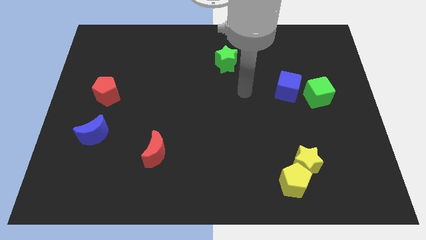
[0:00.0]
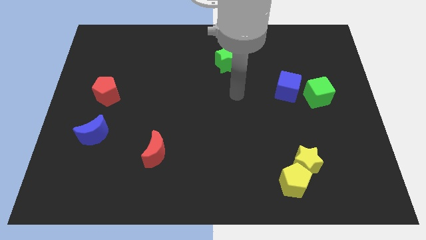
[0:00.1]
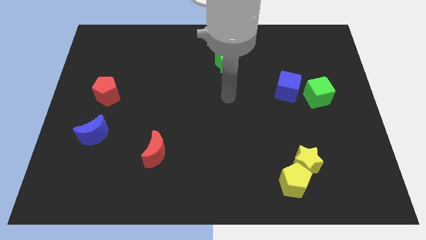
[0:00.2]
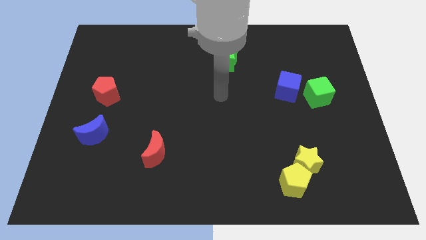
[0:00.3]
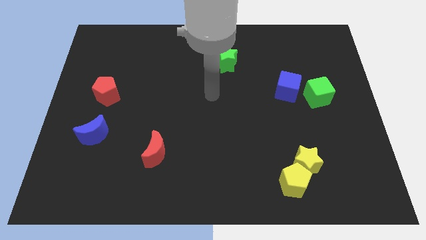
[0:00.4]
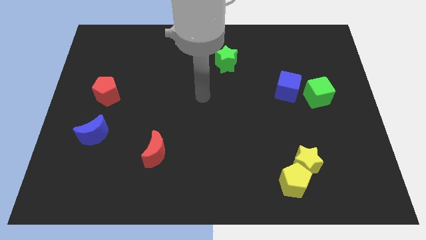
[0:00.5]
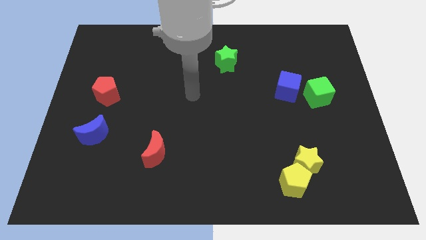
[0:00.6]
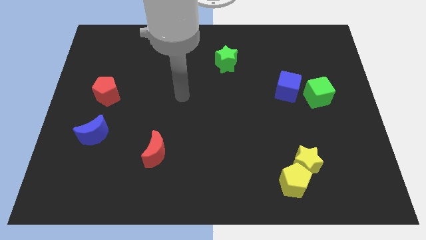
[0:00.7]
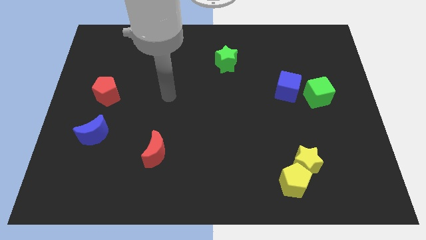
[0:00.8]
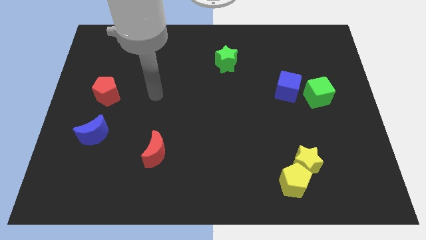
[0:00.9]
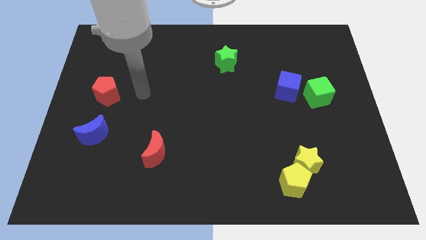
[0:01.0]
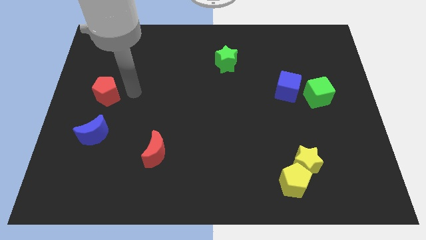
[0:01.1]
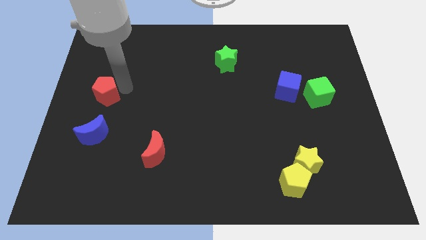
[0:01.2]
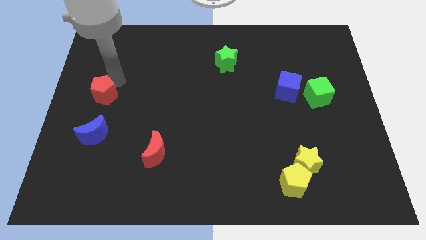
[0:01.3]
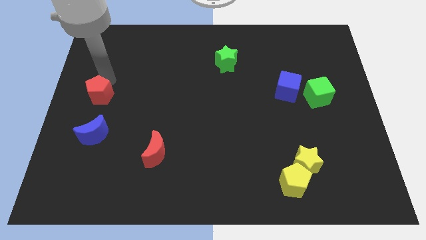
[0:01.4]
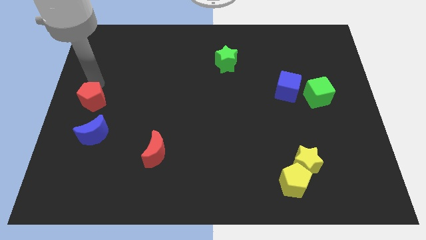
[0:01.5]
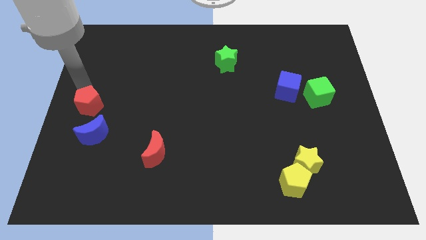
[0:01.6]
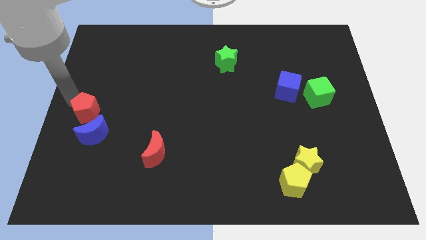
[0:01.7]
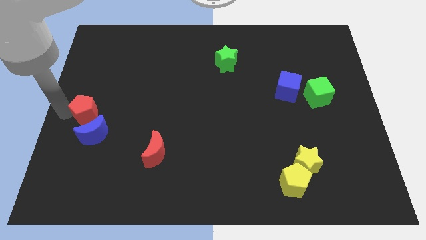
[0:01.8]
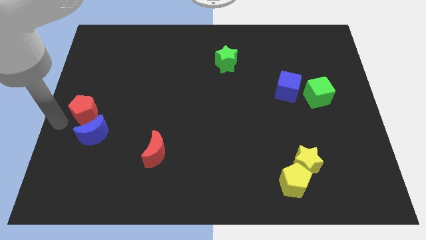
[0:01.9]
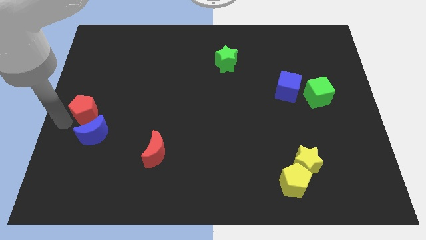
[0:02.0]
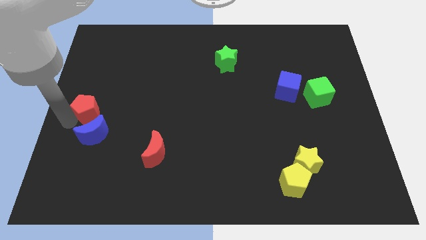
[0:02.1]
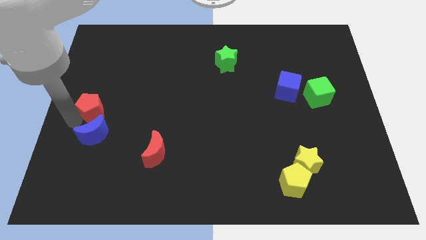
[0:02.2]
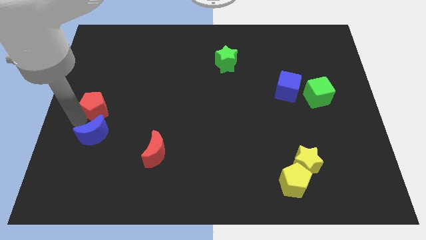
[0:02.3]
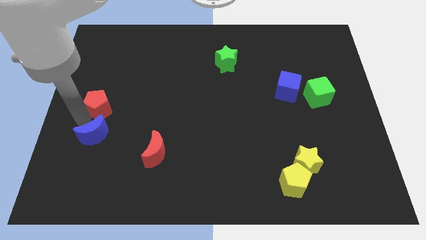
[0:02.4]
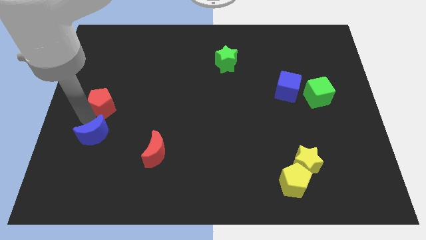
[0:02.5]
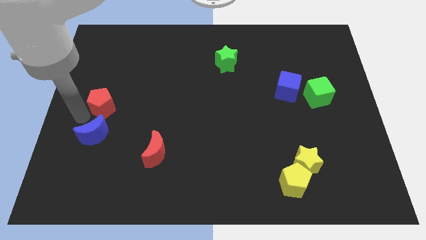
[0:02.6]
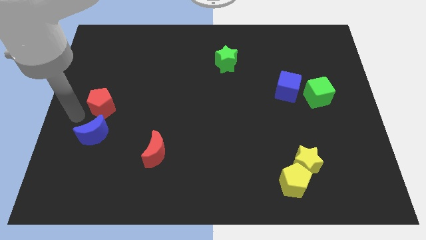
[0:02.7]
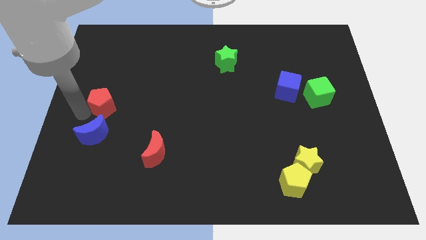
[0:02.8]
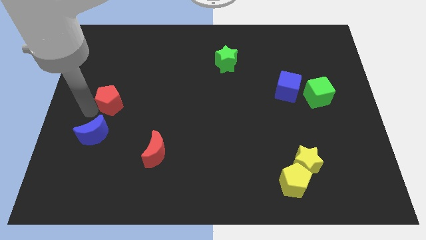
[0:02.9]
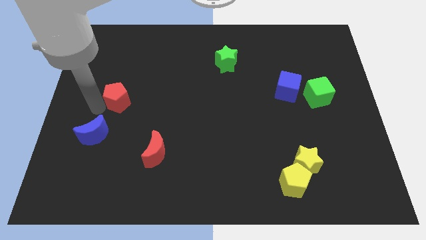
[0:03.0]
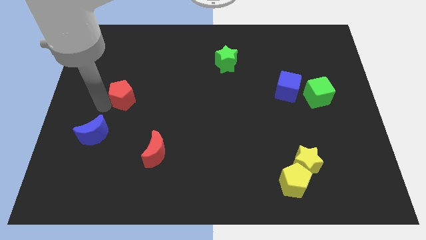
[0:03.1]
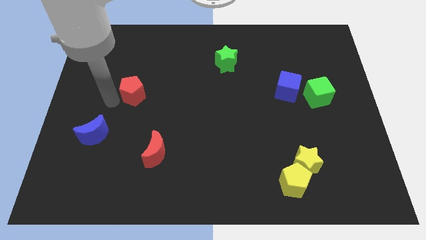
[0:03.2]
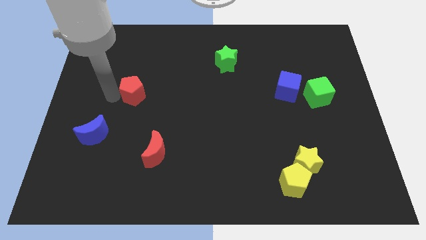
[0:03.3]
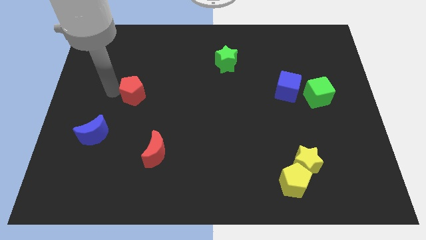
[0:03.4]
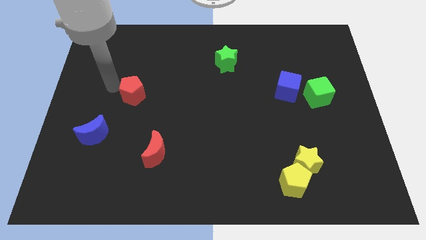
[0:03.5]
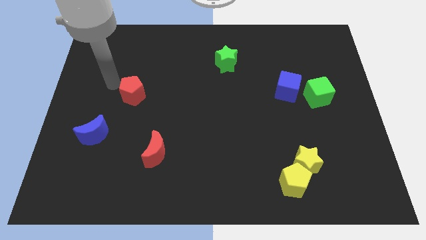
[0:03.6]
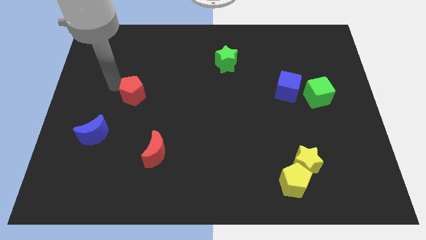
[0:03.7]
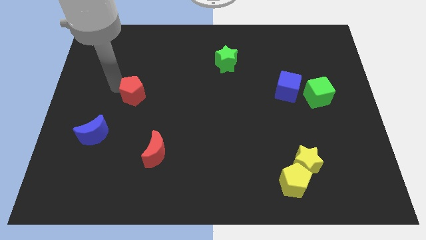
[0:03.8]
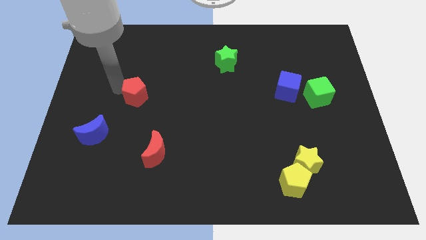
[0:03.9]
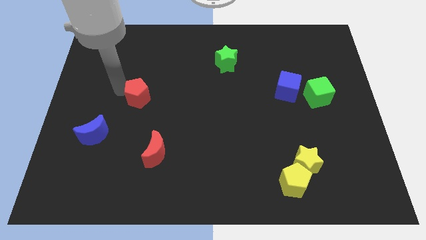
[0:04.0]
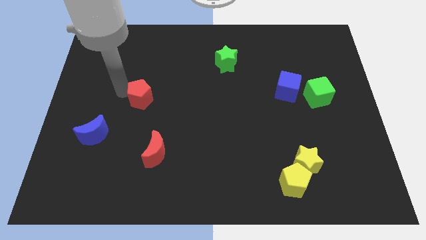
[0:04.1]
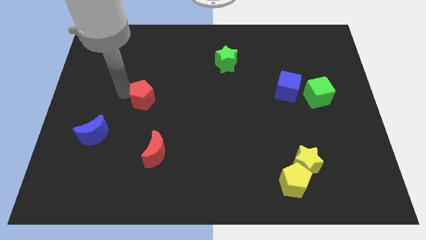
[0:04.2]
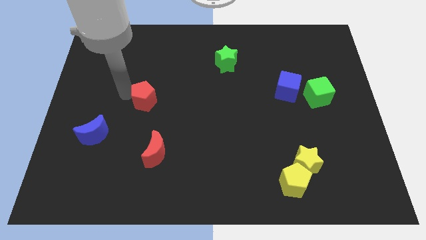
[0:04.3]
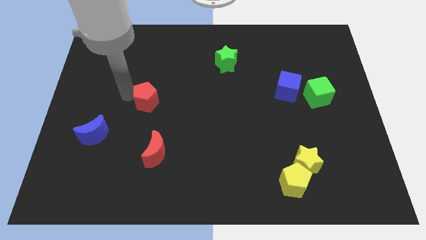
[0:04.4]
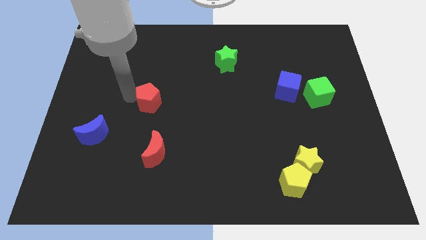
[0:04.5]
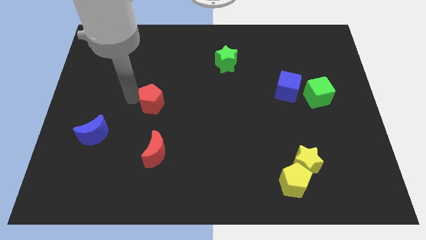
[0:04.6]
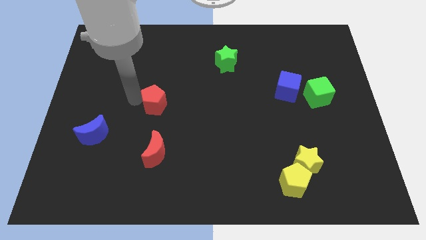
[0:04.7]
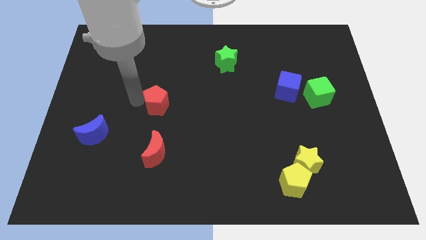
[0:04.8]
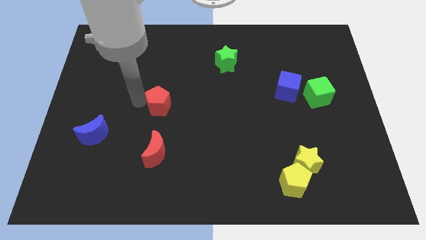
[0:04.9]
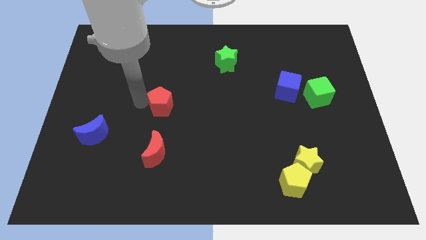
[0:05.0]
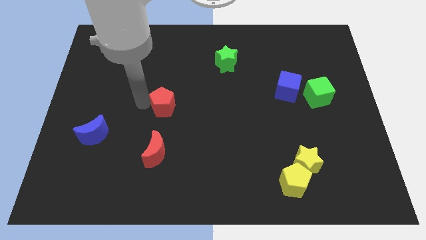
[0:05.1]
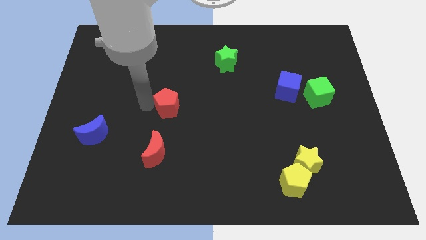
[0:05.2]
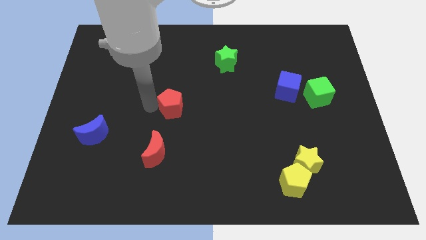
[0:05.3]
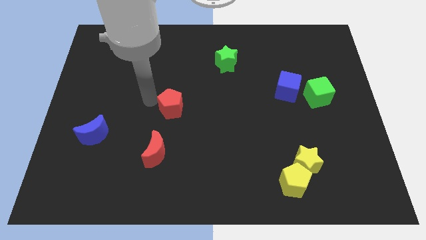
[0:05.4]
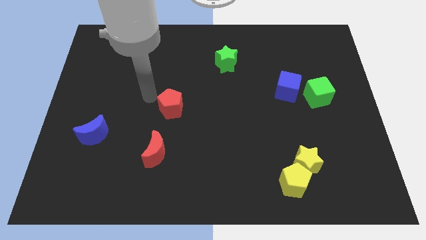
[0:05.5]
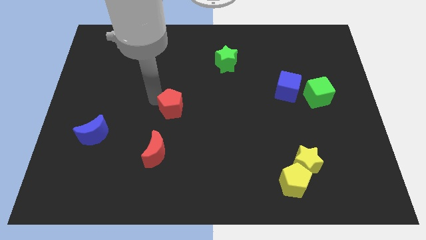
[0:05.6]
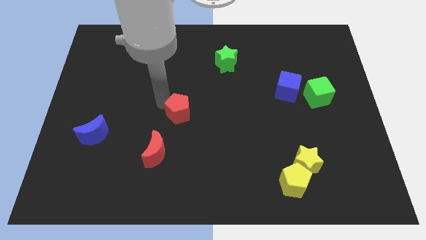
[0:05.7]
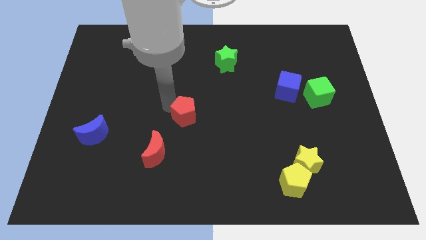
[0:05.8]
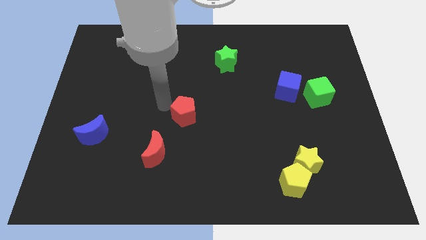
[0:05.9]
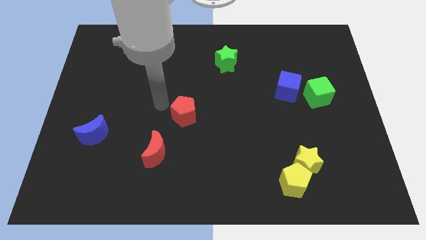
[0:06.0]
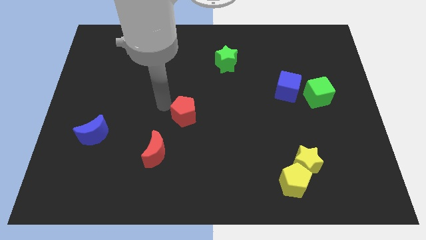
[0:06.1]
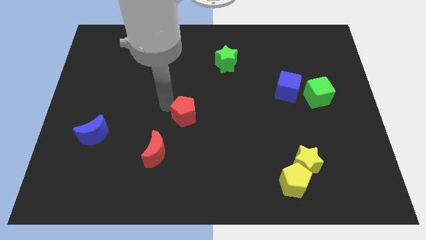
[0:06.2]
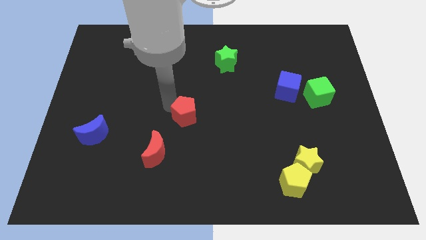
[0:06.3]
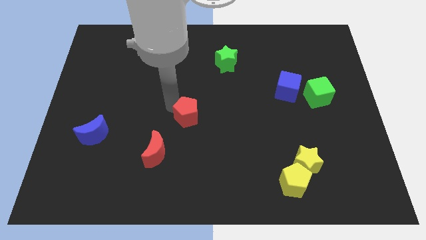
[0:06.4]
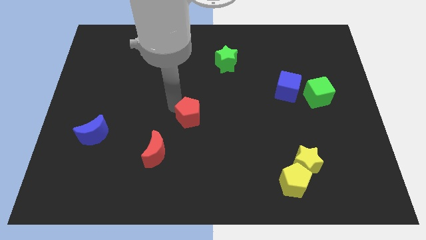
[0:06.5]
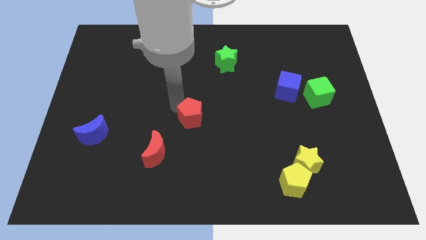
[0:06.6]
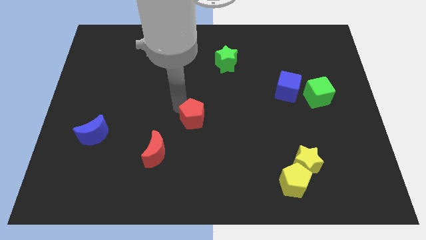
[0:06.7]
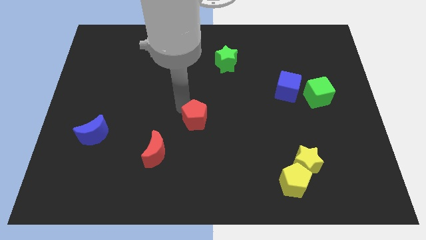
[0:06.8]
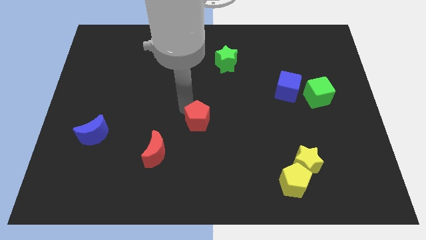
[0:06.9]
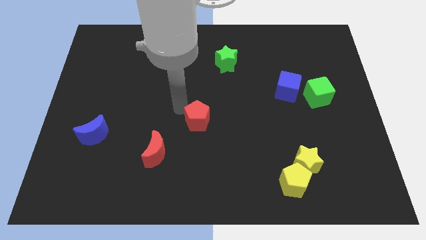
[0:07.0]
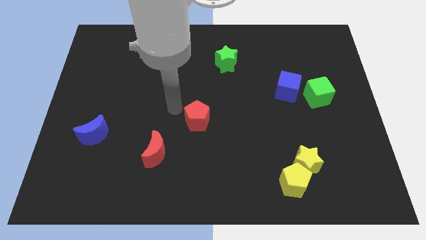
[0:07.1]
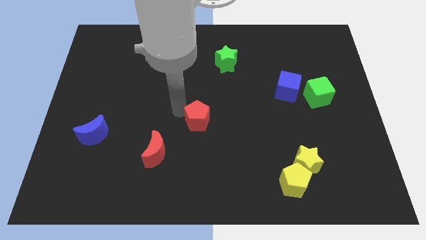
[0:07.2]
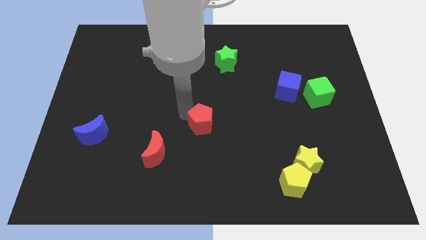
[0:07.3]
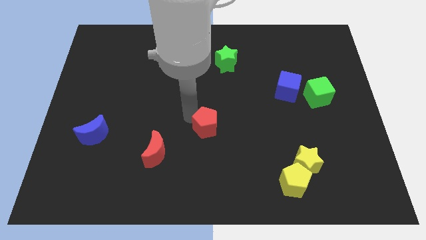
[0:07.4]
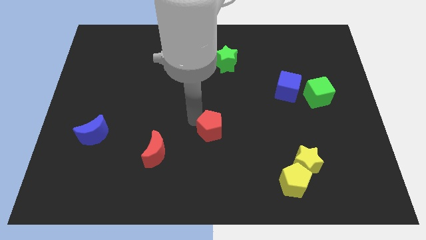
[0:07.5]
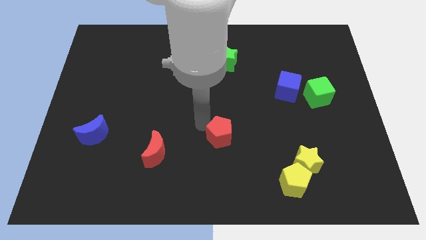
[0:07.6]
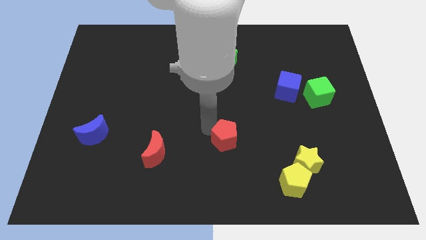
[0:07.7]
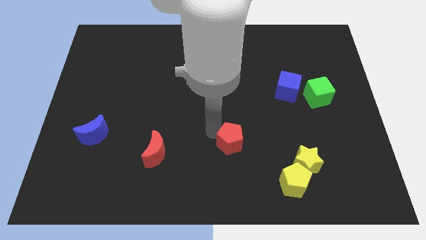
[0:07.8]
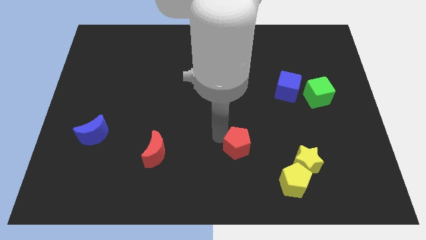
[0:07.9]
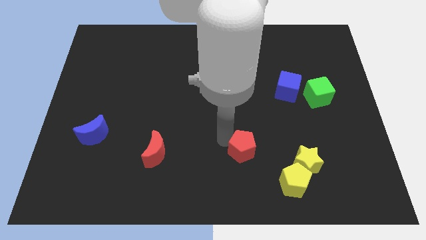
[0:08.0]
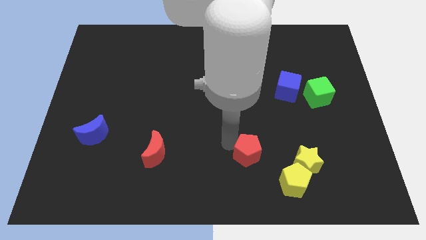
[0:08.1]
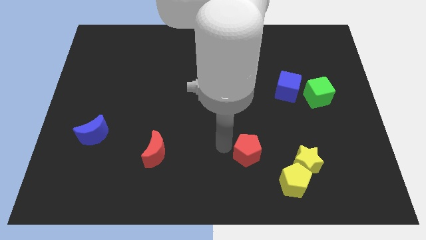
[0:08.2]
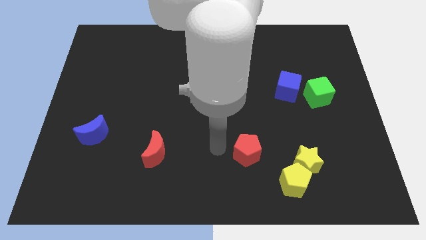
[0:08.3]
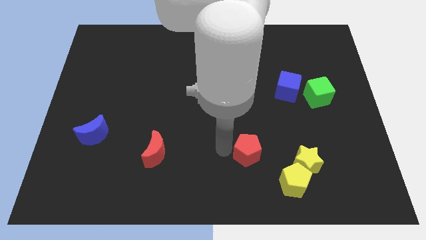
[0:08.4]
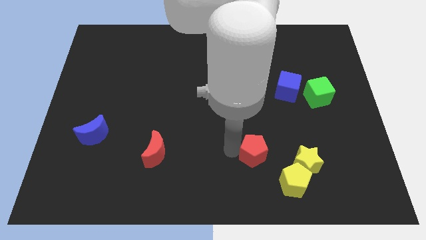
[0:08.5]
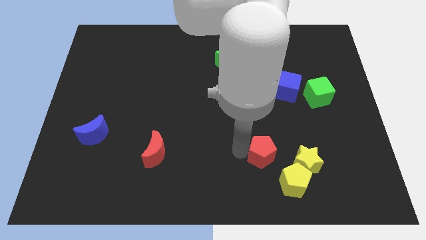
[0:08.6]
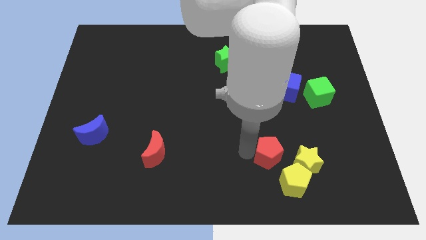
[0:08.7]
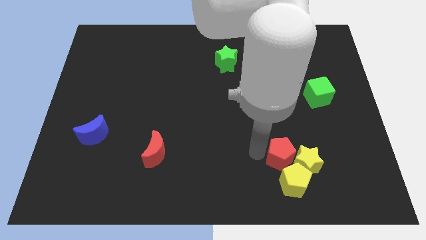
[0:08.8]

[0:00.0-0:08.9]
put the red pentagon towards the yellow star
